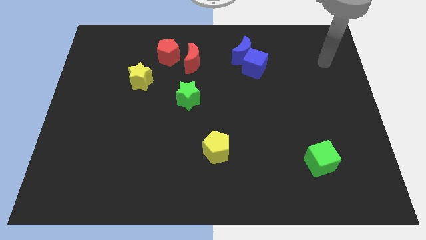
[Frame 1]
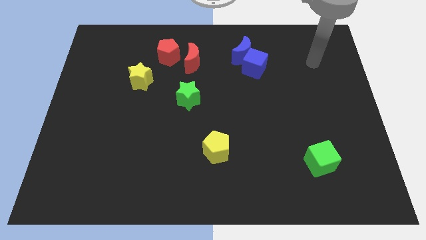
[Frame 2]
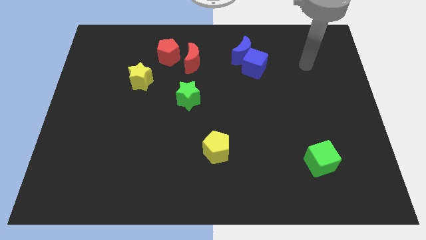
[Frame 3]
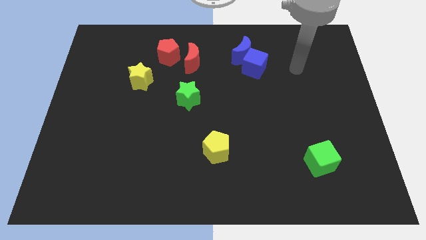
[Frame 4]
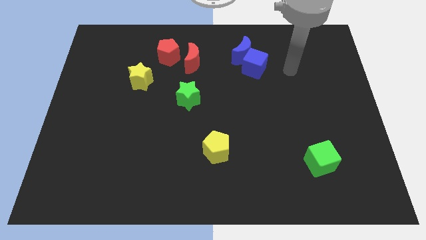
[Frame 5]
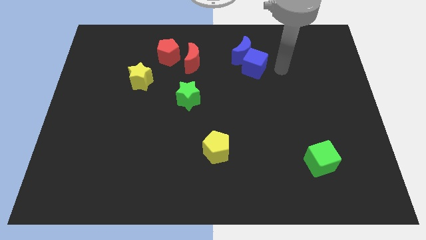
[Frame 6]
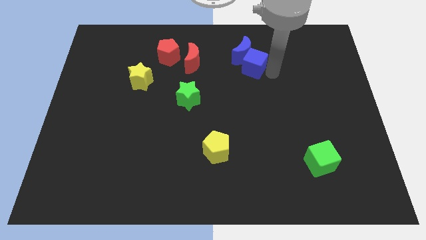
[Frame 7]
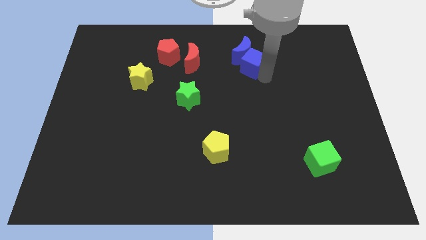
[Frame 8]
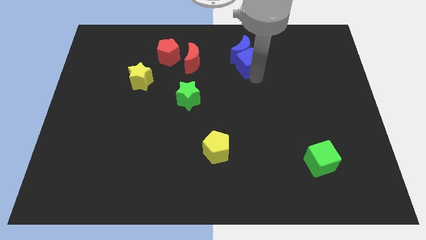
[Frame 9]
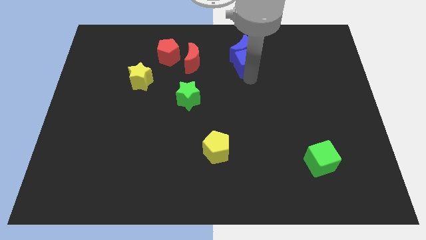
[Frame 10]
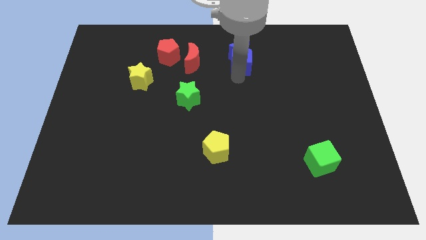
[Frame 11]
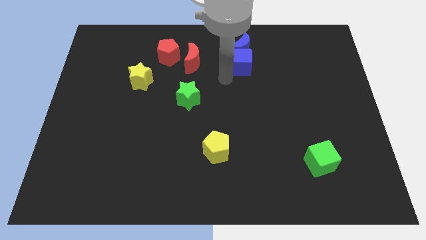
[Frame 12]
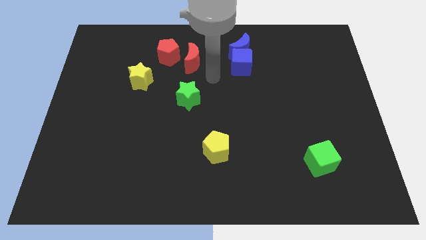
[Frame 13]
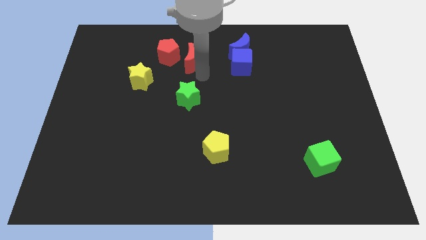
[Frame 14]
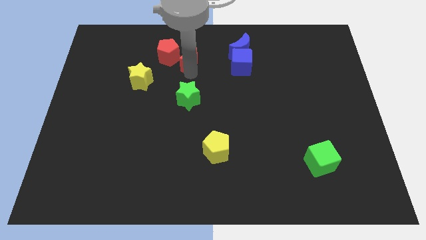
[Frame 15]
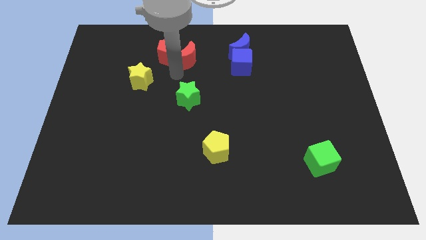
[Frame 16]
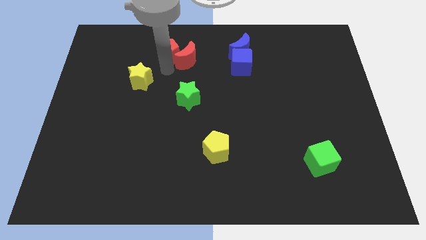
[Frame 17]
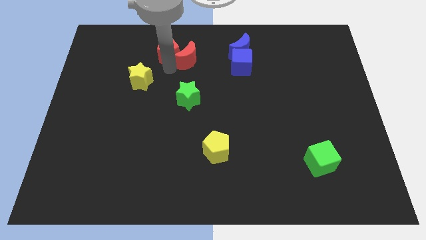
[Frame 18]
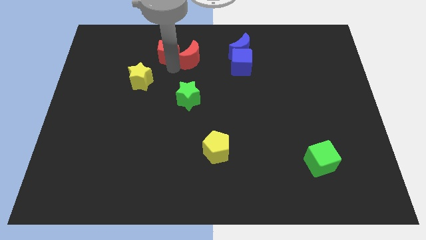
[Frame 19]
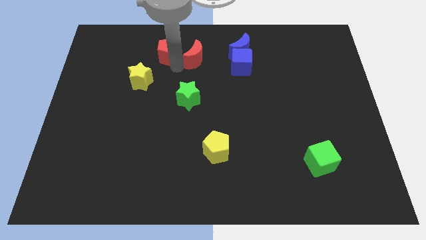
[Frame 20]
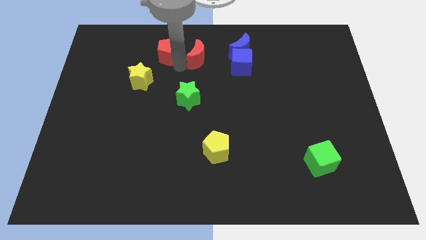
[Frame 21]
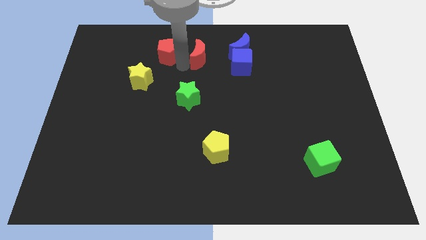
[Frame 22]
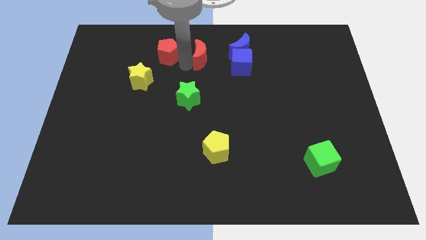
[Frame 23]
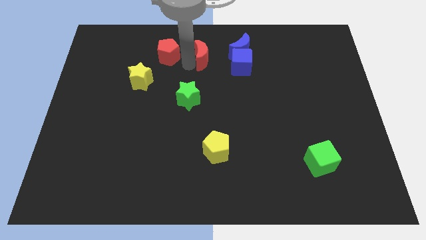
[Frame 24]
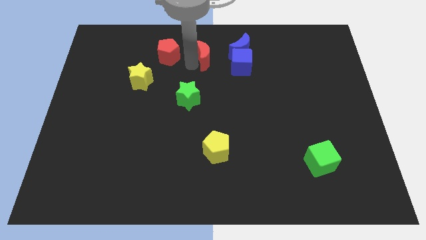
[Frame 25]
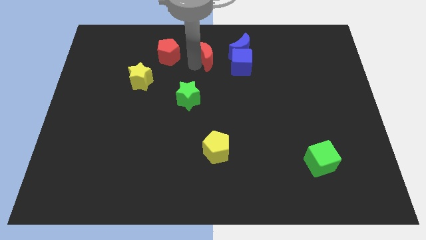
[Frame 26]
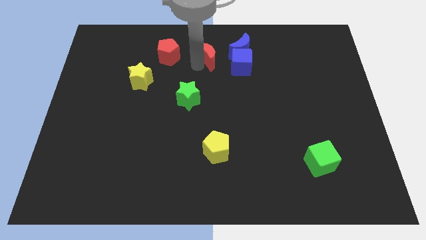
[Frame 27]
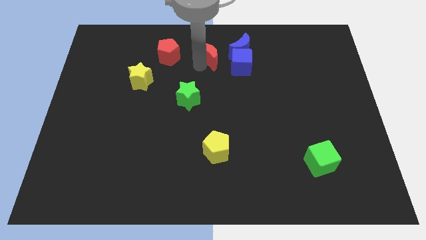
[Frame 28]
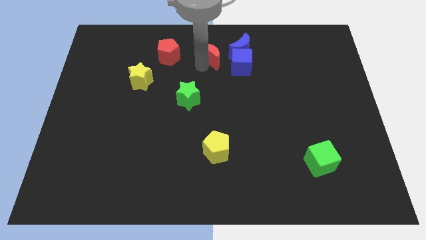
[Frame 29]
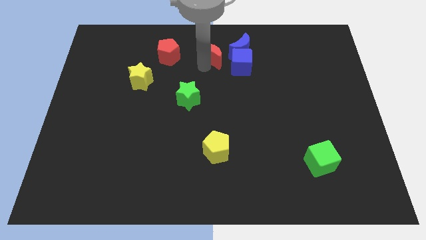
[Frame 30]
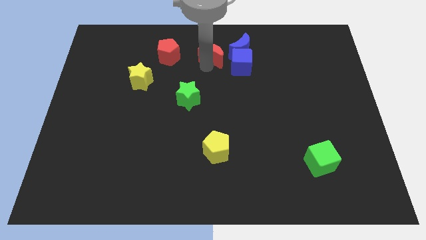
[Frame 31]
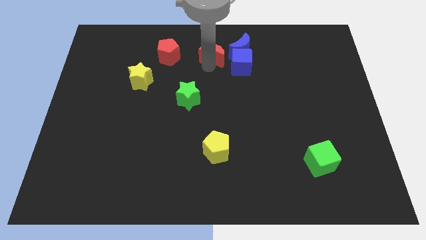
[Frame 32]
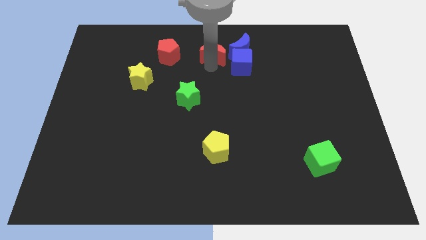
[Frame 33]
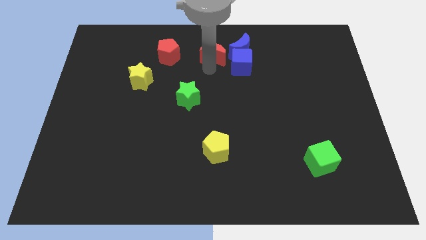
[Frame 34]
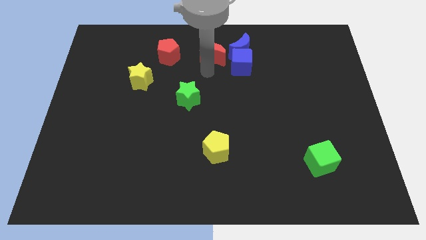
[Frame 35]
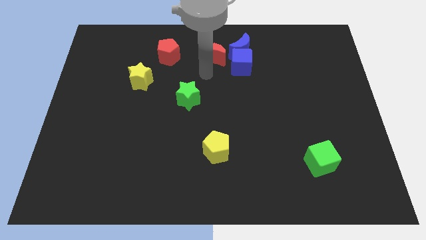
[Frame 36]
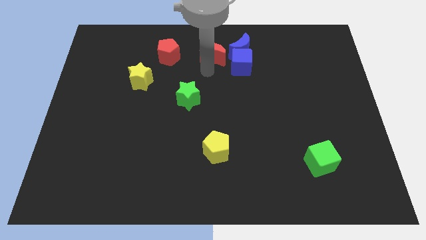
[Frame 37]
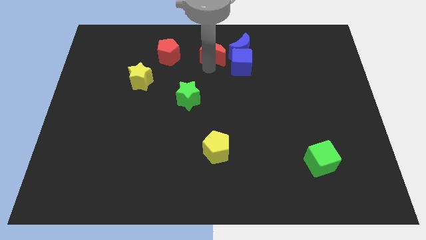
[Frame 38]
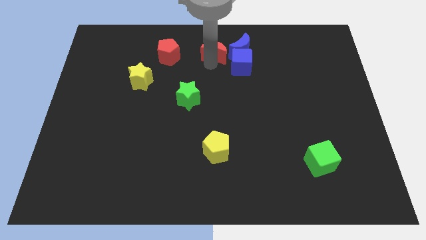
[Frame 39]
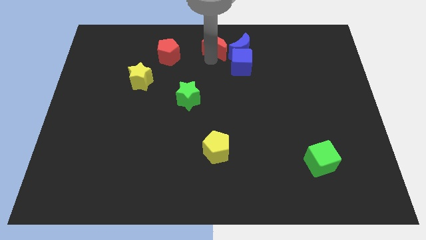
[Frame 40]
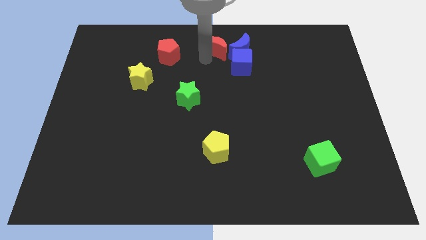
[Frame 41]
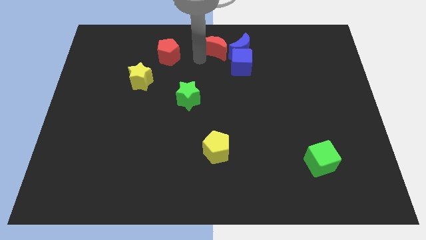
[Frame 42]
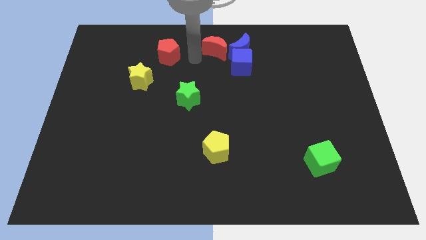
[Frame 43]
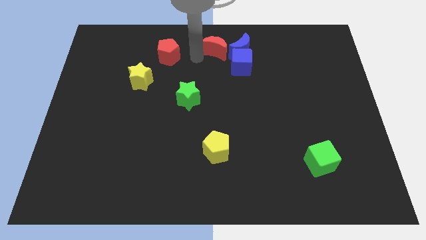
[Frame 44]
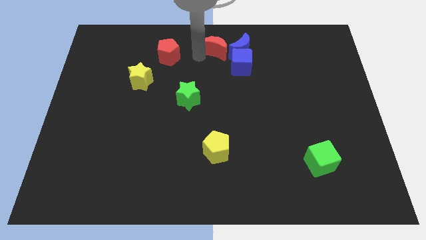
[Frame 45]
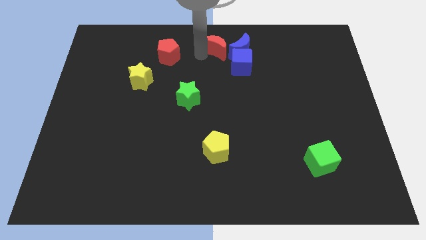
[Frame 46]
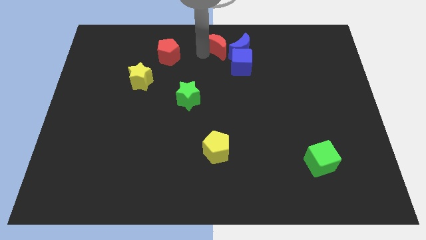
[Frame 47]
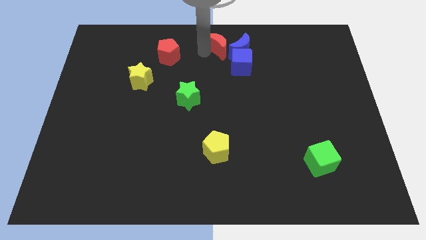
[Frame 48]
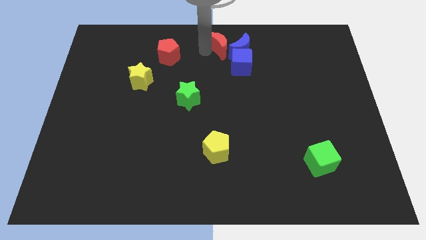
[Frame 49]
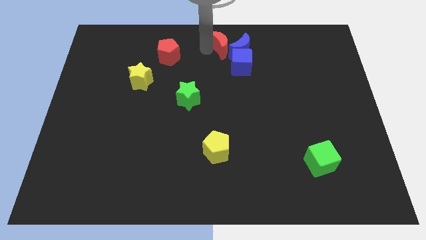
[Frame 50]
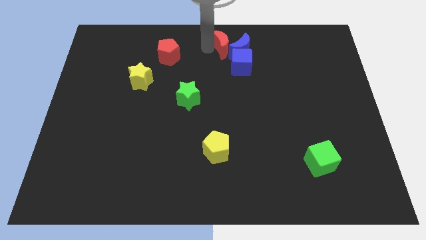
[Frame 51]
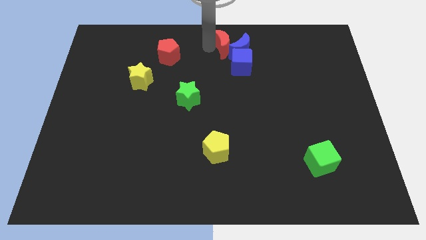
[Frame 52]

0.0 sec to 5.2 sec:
push the red moon to the right a bit

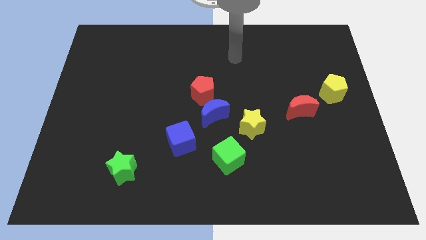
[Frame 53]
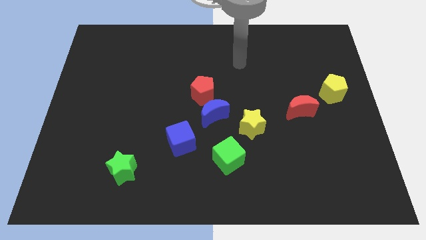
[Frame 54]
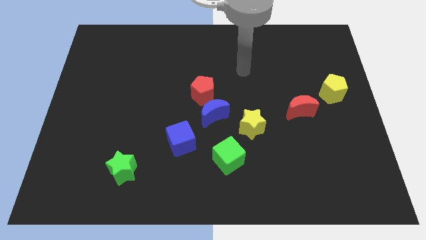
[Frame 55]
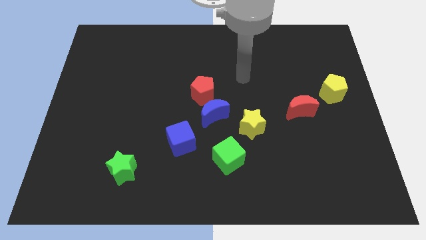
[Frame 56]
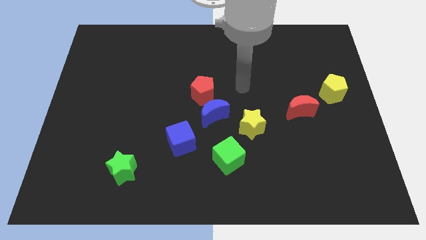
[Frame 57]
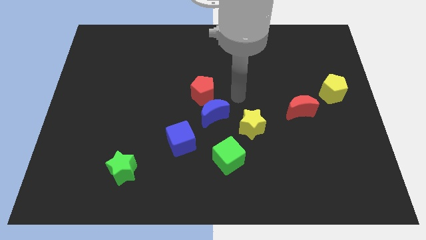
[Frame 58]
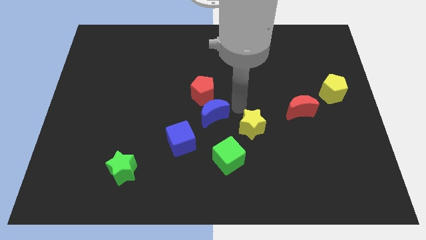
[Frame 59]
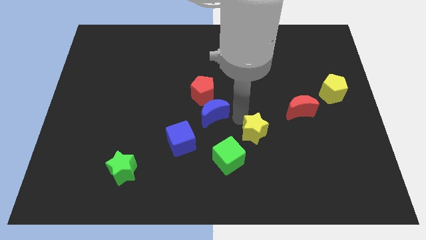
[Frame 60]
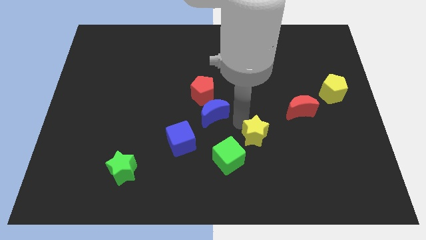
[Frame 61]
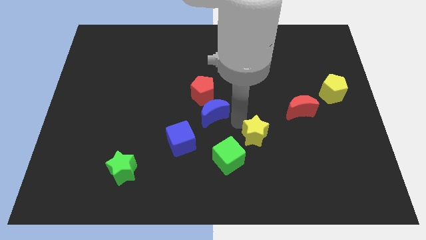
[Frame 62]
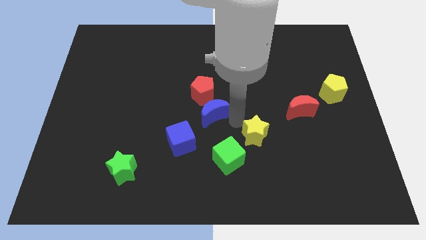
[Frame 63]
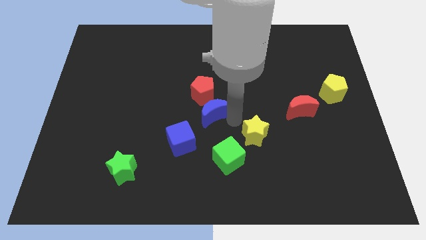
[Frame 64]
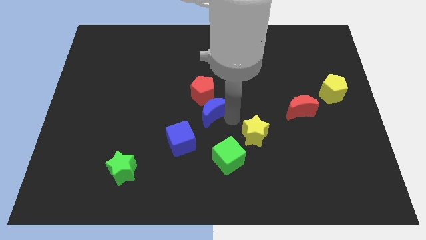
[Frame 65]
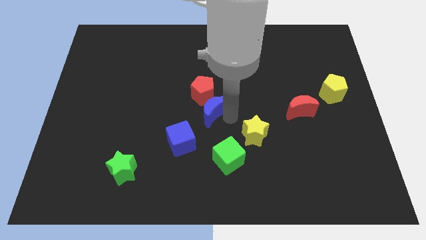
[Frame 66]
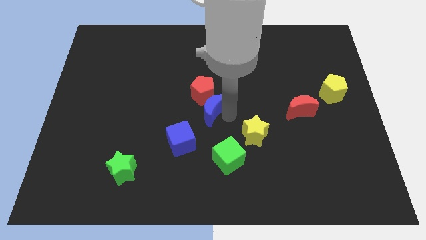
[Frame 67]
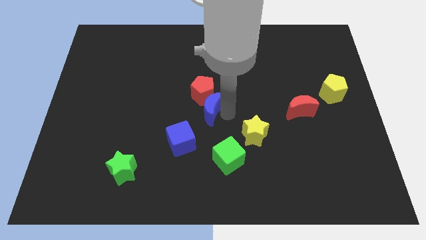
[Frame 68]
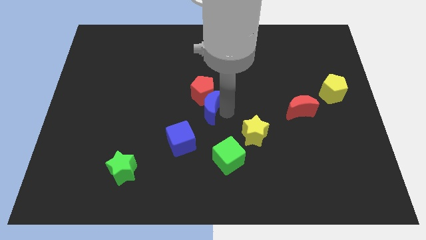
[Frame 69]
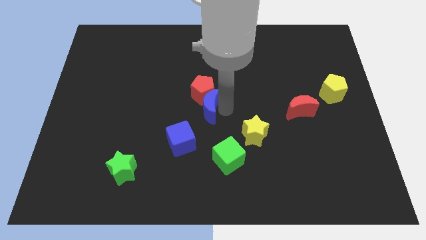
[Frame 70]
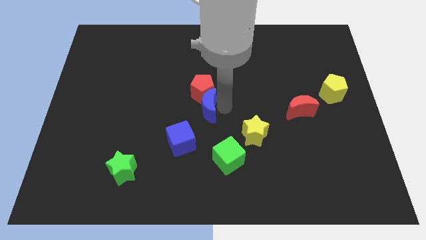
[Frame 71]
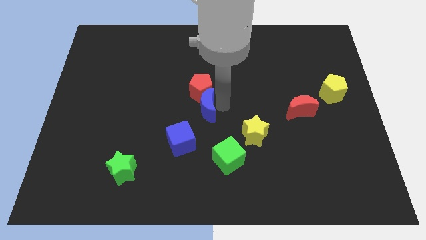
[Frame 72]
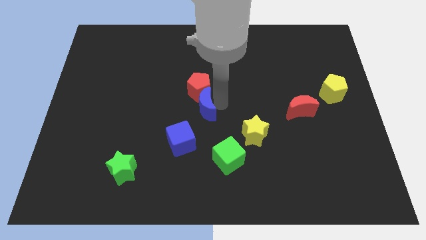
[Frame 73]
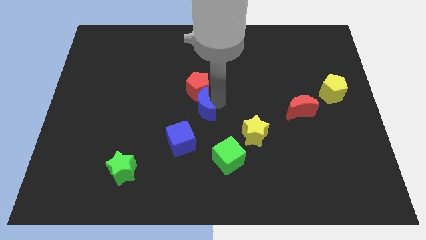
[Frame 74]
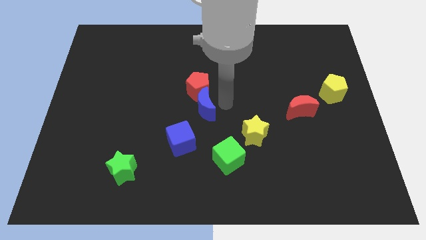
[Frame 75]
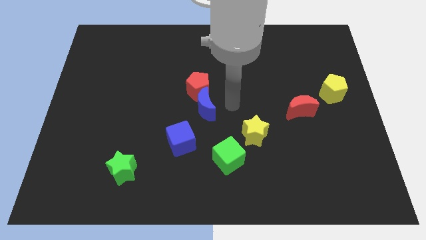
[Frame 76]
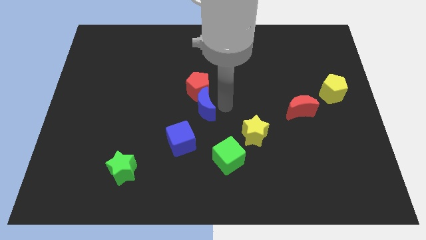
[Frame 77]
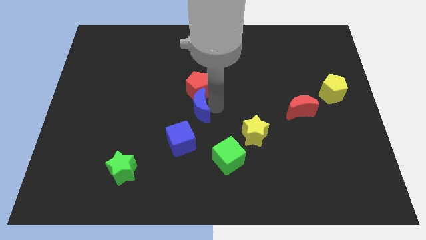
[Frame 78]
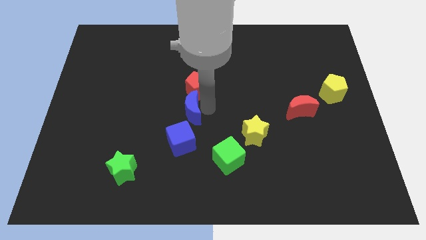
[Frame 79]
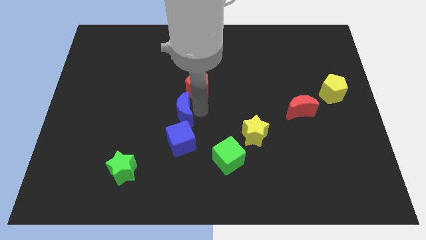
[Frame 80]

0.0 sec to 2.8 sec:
move the blue moon slightly left

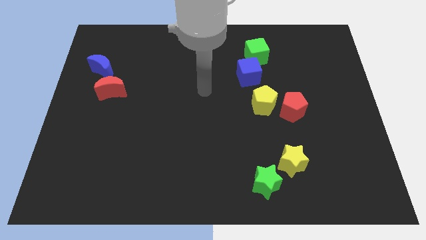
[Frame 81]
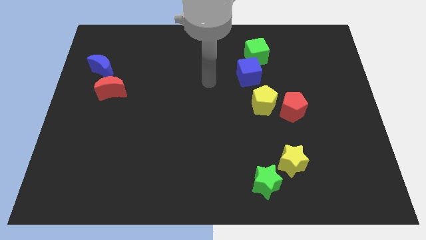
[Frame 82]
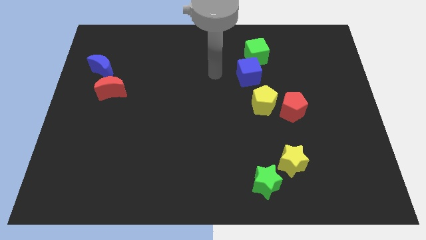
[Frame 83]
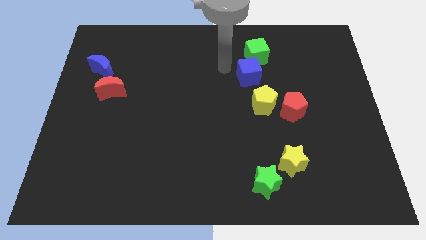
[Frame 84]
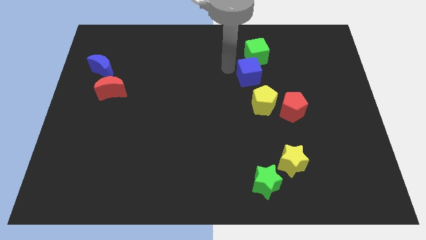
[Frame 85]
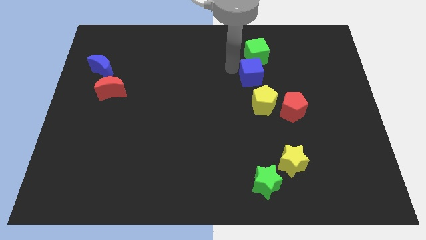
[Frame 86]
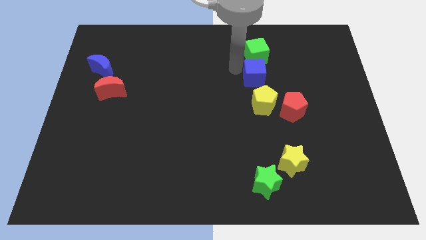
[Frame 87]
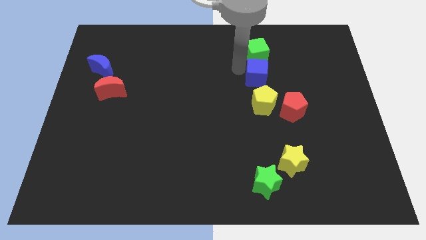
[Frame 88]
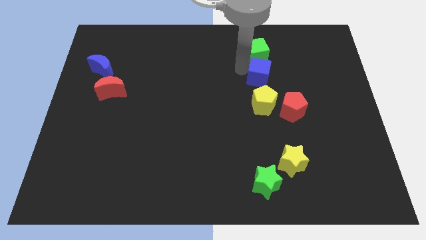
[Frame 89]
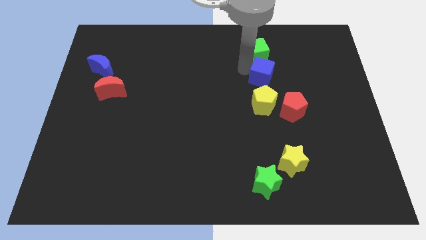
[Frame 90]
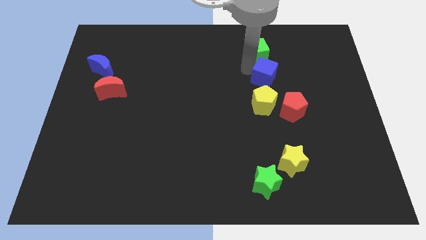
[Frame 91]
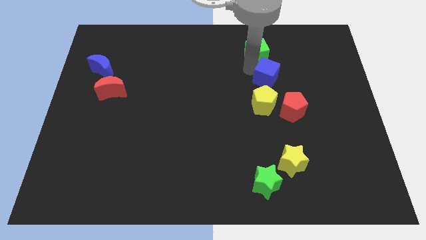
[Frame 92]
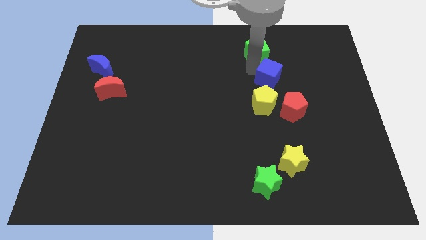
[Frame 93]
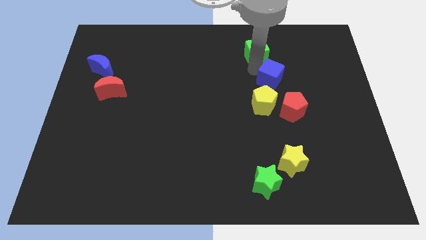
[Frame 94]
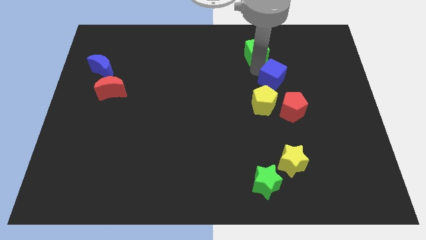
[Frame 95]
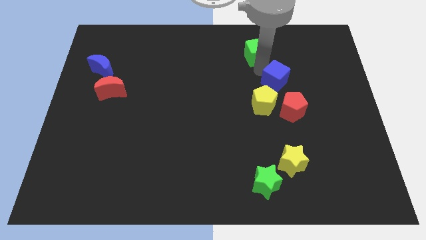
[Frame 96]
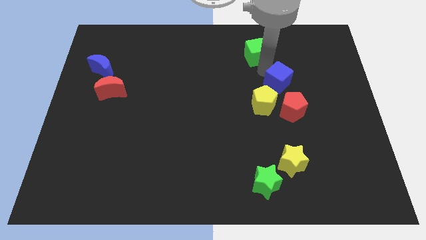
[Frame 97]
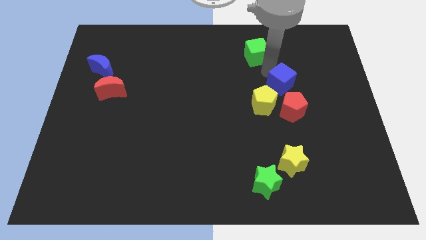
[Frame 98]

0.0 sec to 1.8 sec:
slide the blue cube a bit down and then to the right
